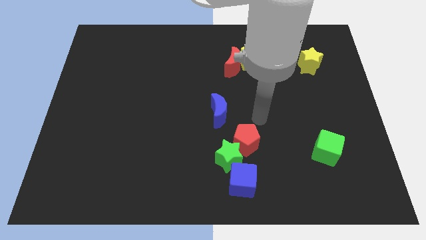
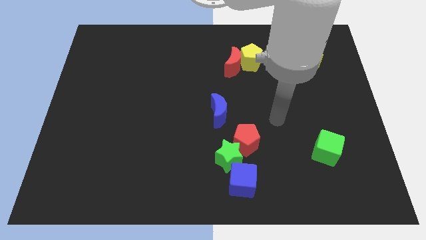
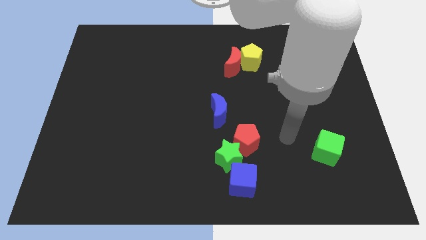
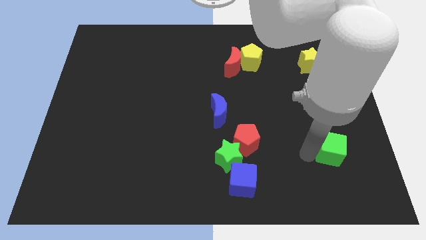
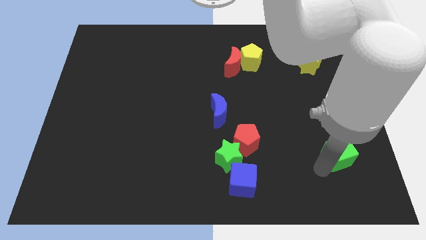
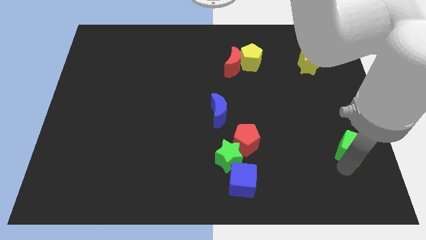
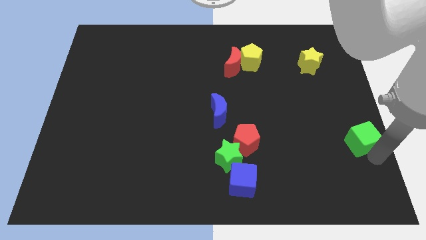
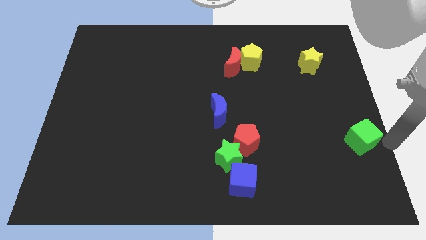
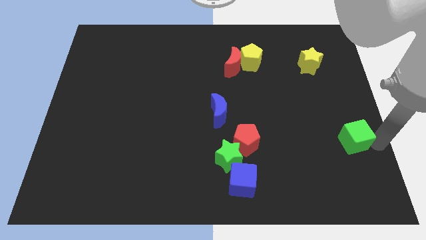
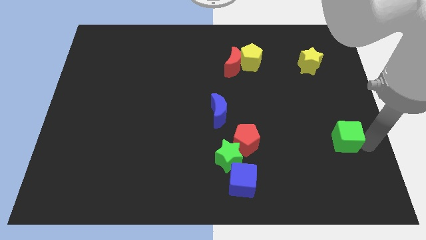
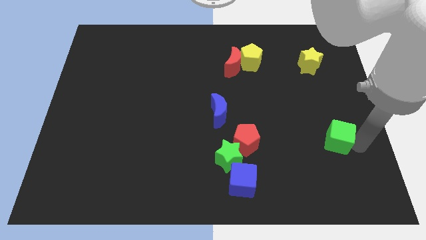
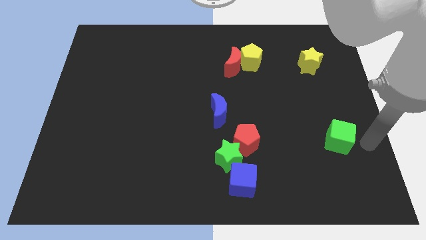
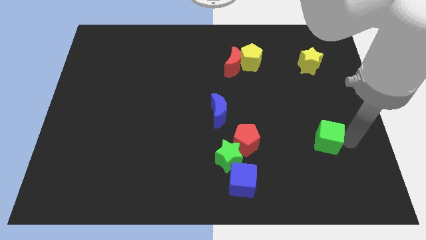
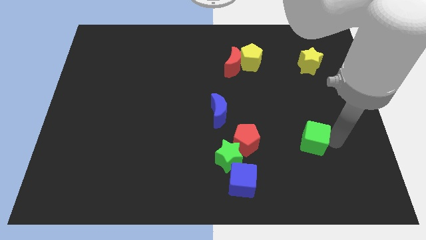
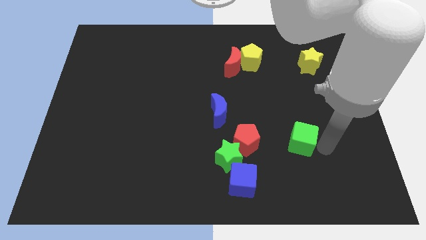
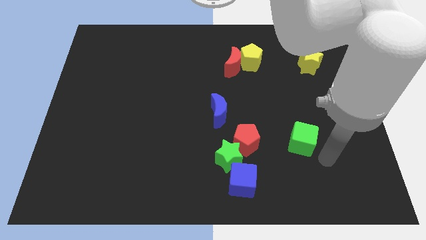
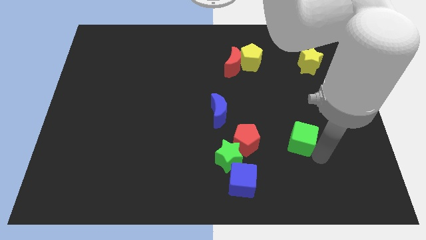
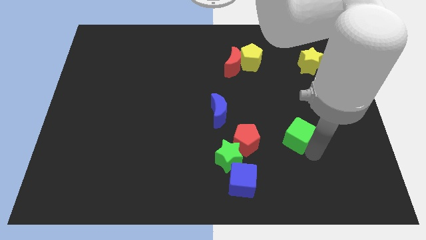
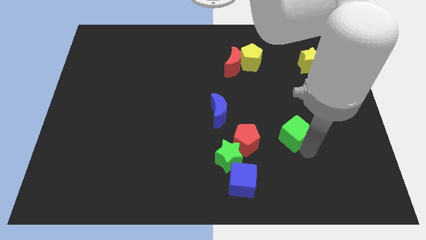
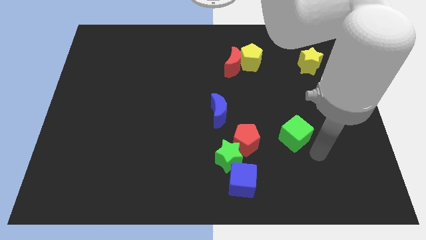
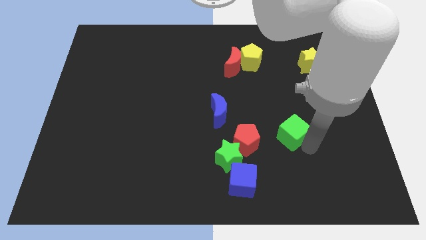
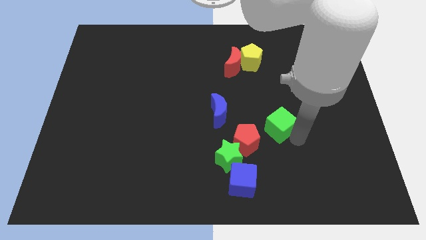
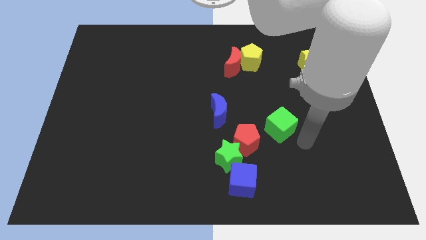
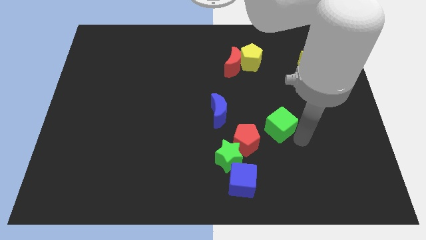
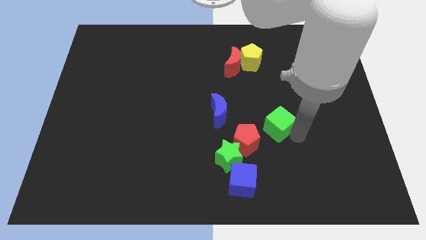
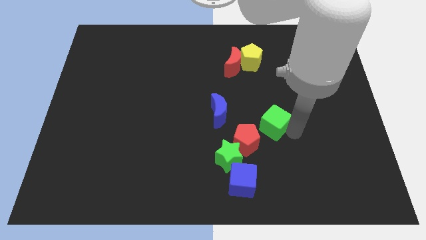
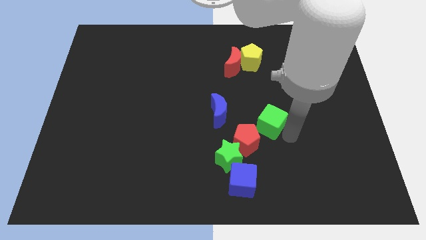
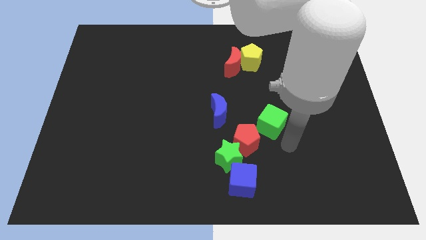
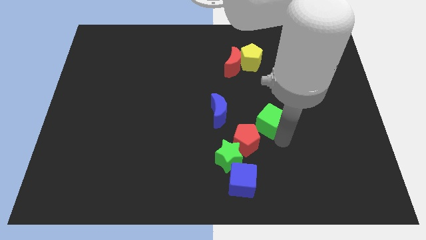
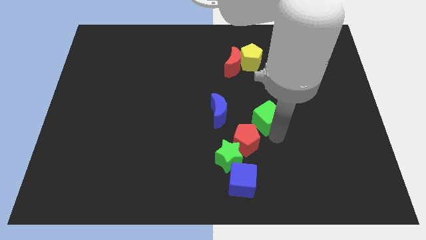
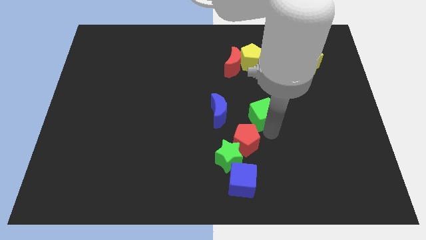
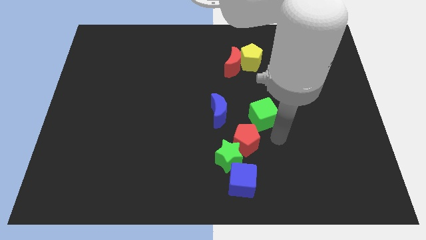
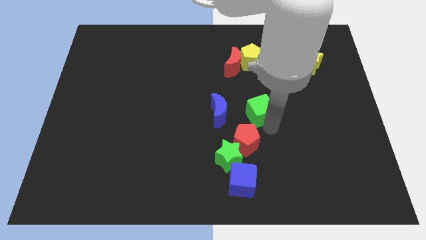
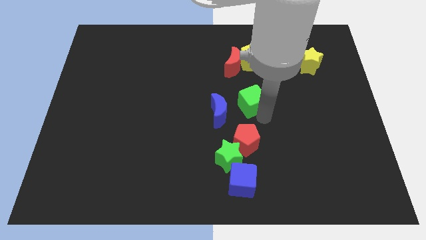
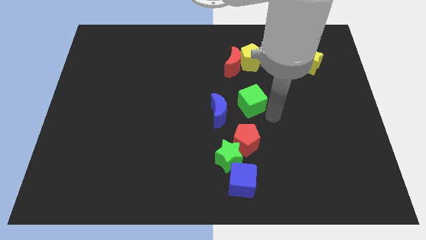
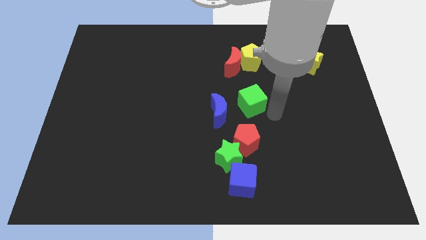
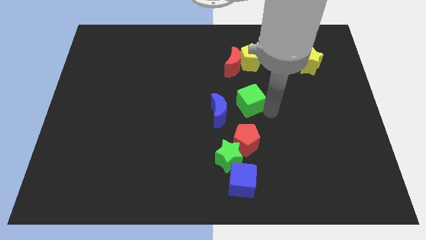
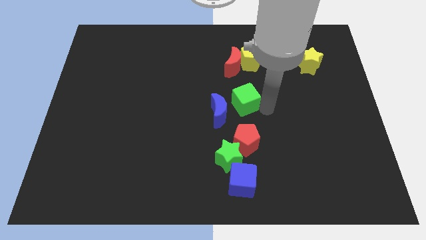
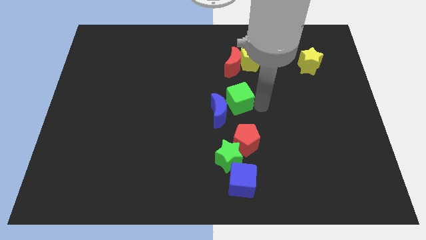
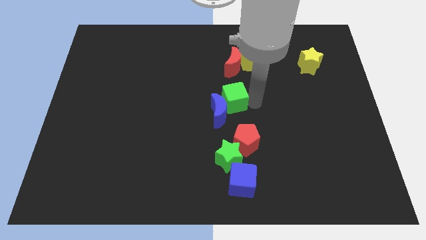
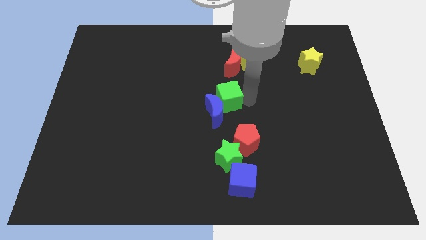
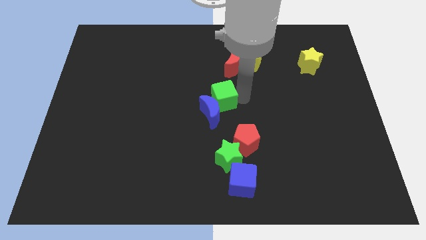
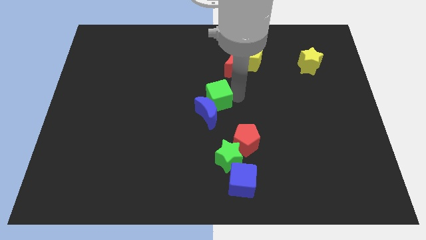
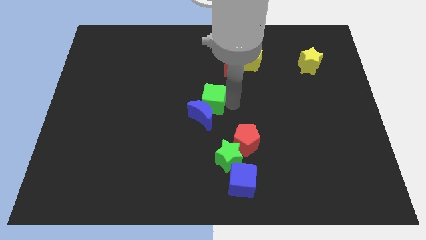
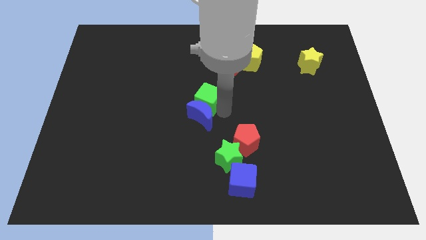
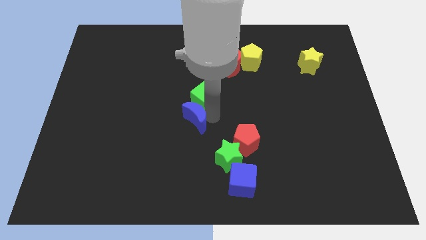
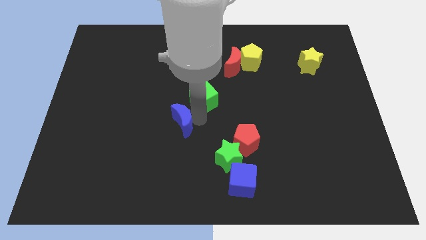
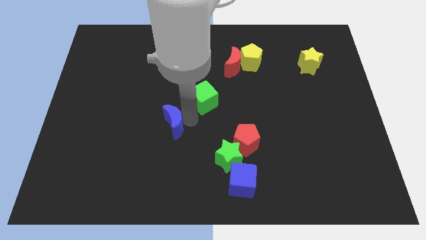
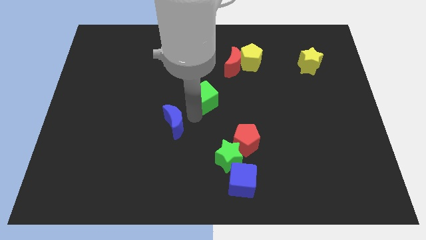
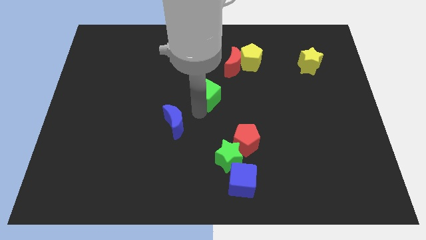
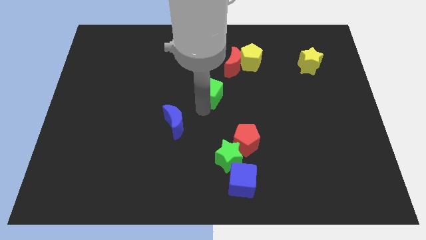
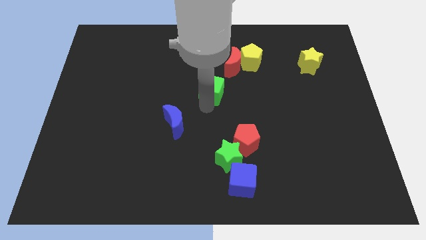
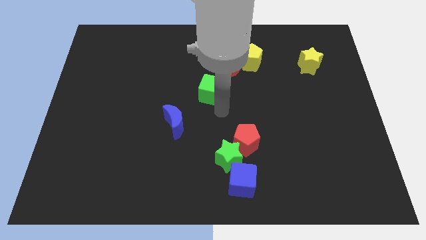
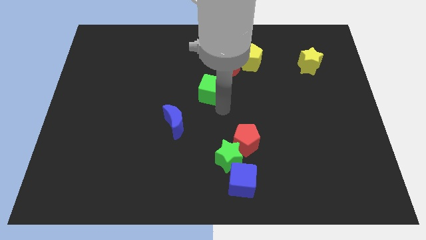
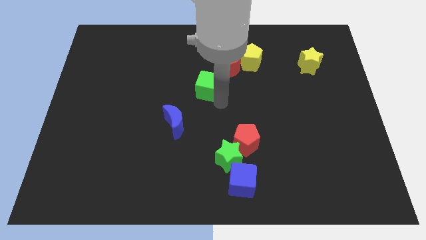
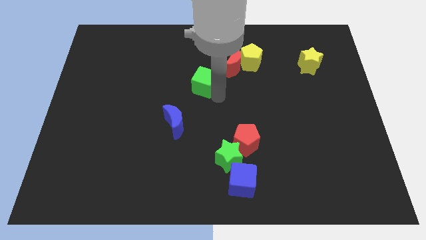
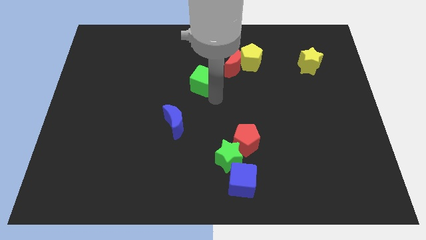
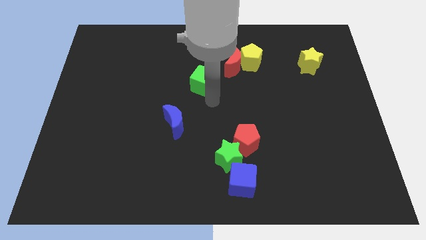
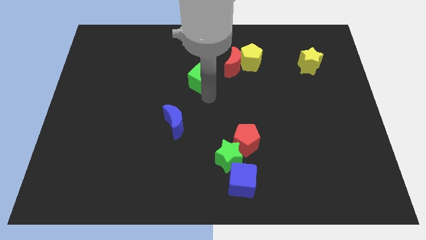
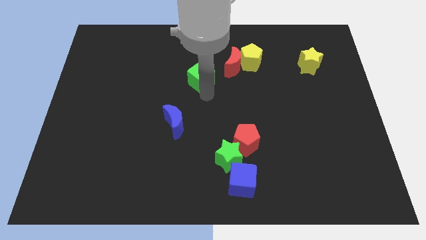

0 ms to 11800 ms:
move the green cube just left of the red moon
